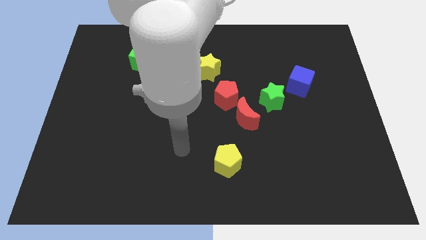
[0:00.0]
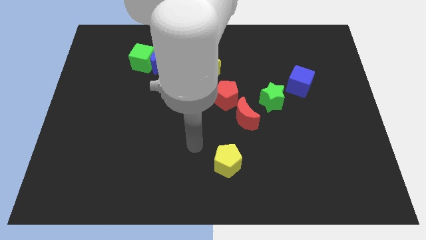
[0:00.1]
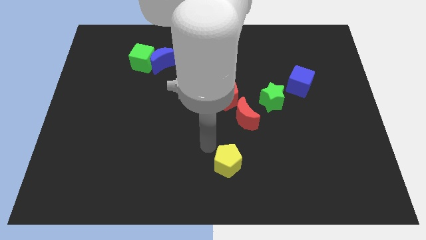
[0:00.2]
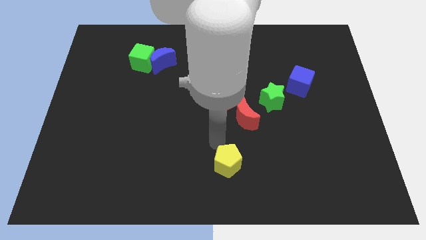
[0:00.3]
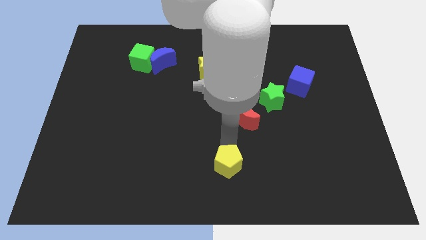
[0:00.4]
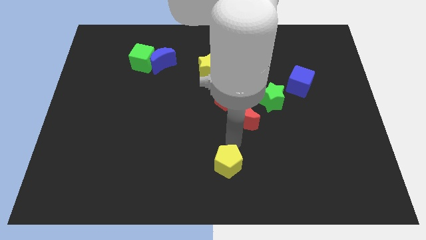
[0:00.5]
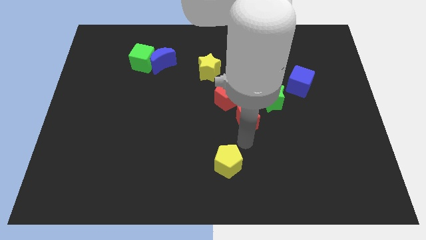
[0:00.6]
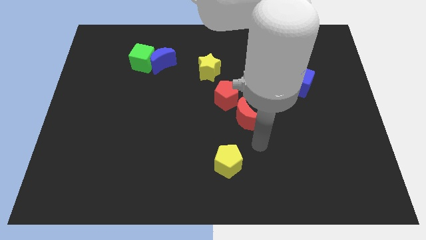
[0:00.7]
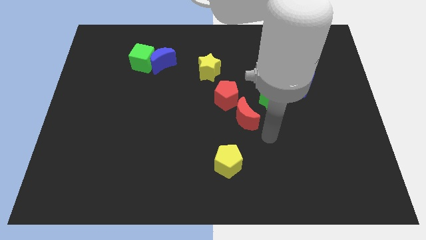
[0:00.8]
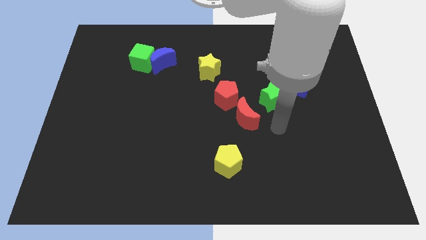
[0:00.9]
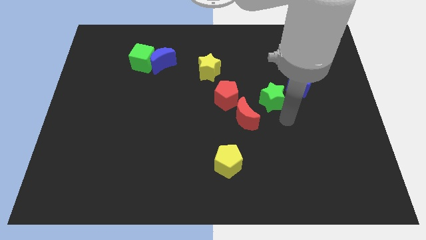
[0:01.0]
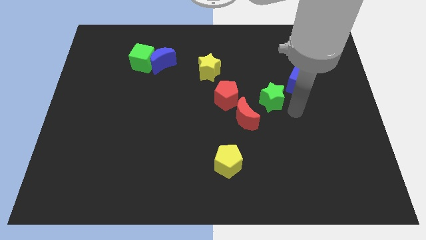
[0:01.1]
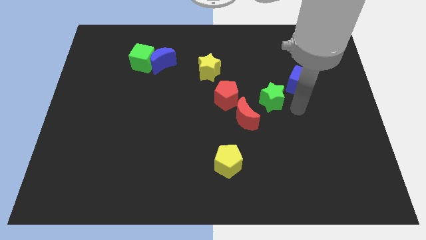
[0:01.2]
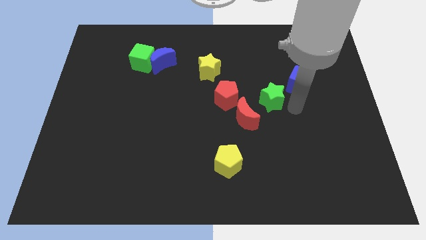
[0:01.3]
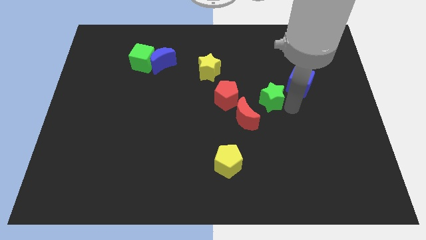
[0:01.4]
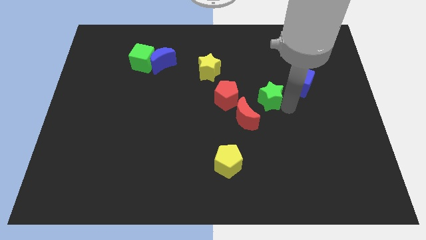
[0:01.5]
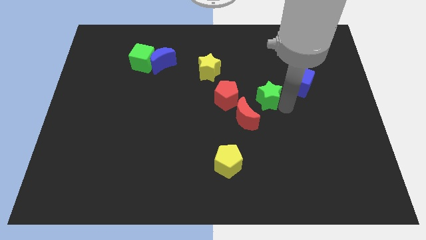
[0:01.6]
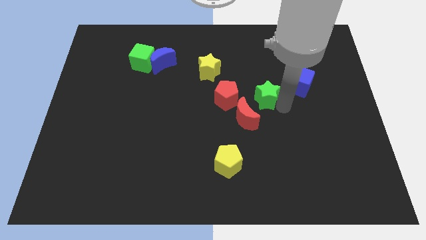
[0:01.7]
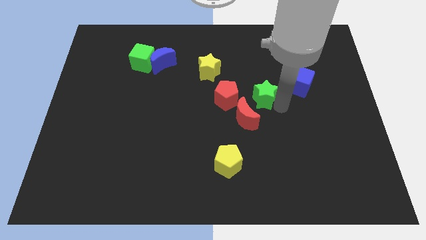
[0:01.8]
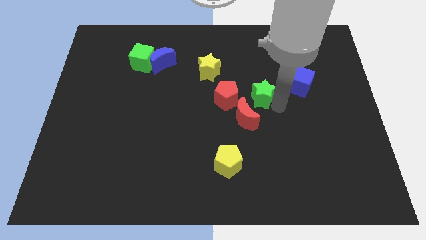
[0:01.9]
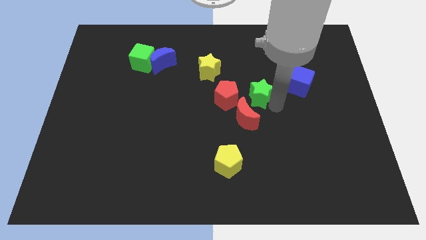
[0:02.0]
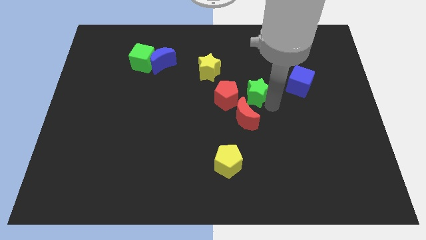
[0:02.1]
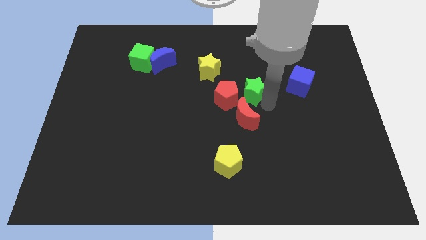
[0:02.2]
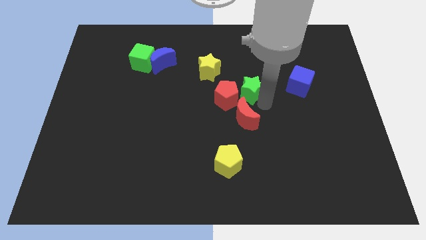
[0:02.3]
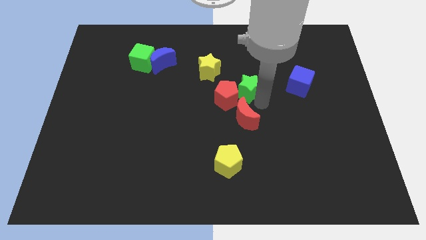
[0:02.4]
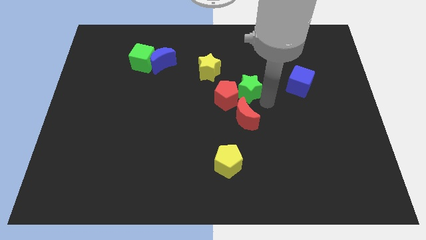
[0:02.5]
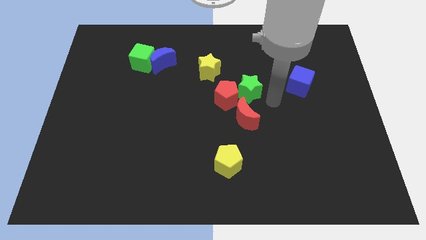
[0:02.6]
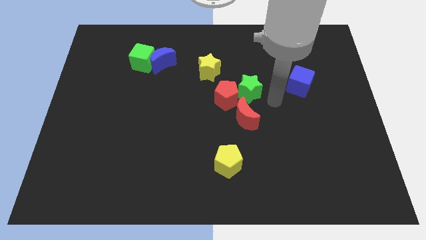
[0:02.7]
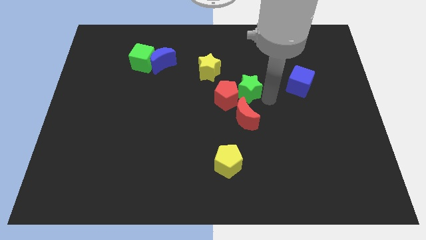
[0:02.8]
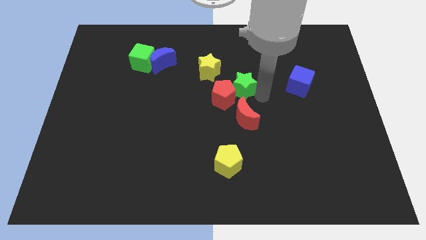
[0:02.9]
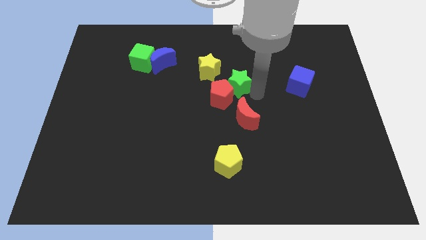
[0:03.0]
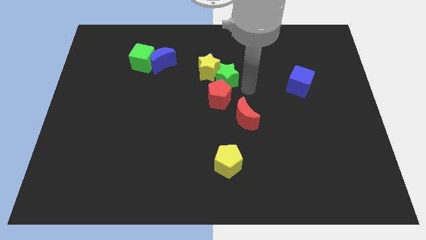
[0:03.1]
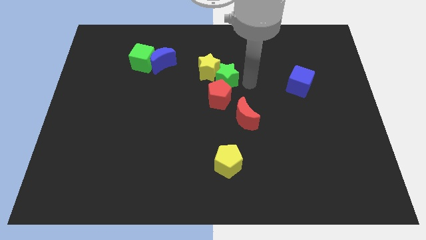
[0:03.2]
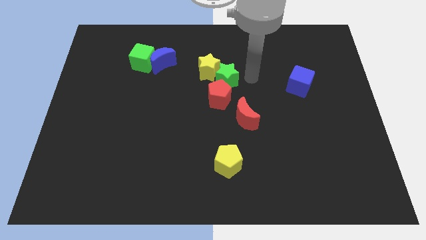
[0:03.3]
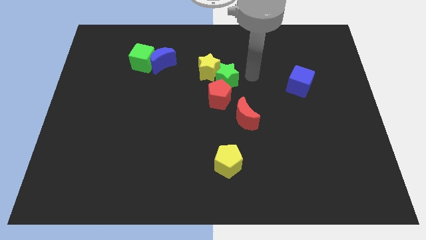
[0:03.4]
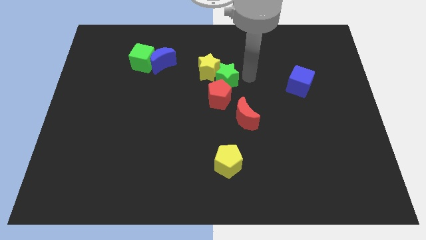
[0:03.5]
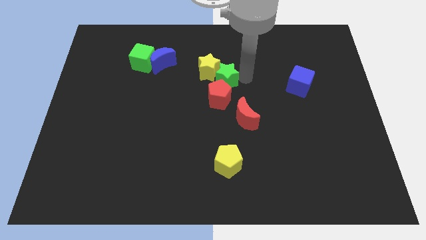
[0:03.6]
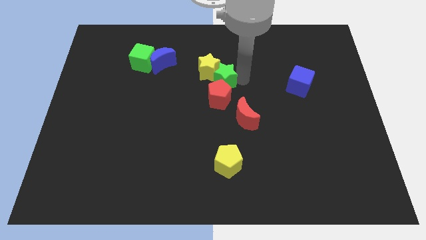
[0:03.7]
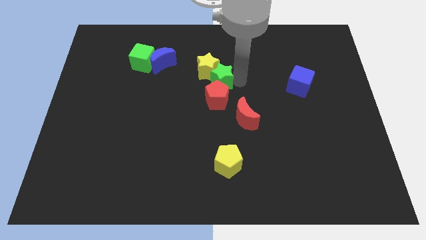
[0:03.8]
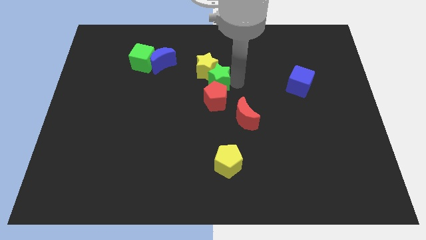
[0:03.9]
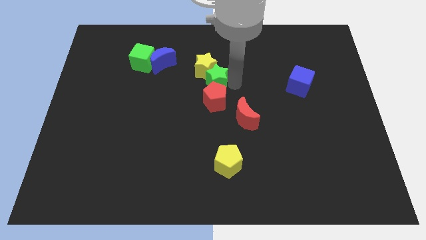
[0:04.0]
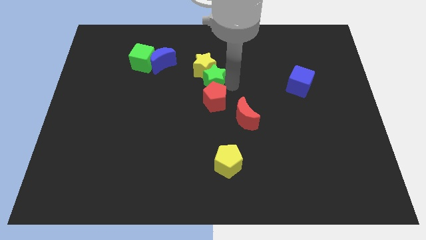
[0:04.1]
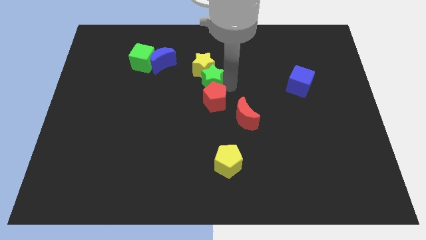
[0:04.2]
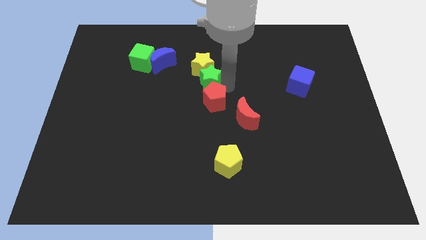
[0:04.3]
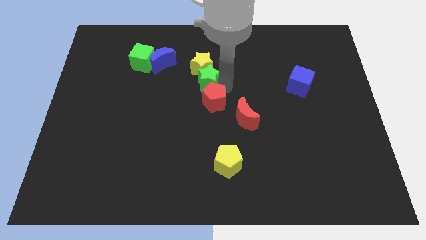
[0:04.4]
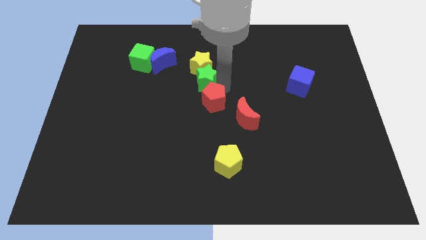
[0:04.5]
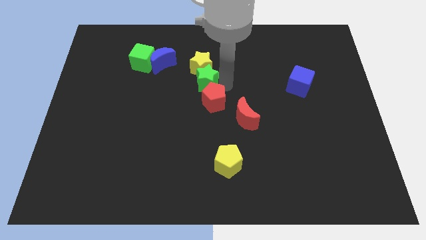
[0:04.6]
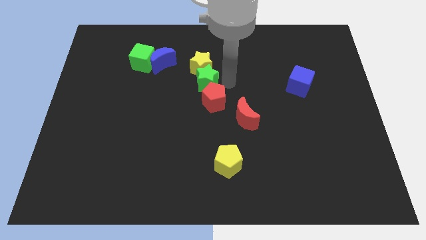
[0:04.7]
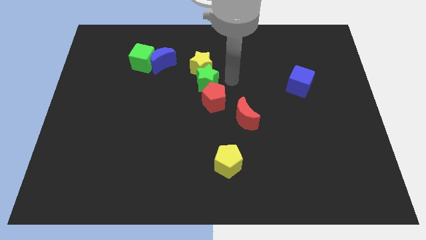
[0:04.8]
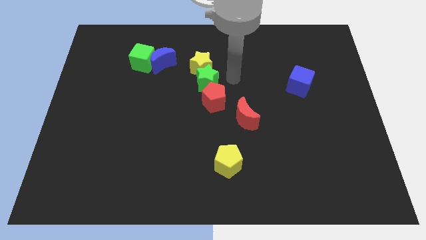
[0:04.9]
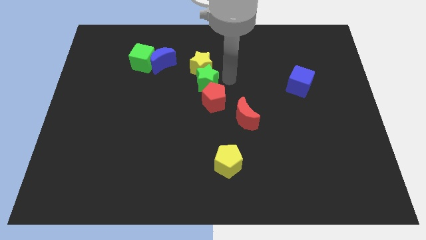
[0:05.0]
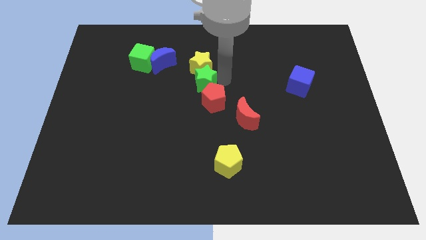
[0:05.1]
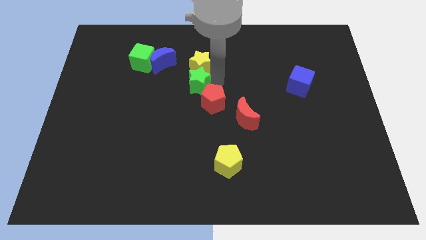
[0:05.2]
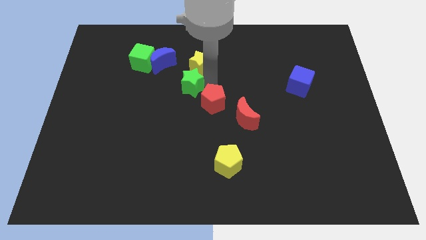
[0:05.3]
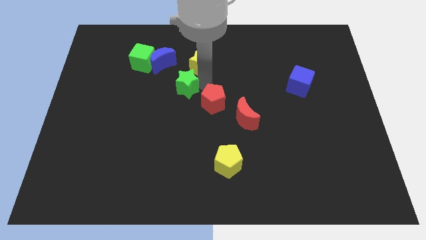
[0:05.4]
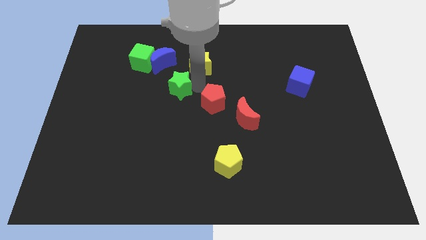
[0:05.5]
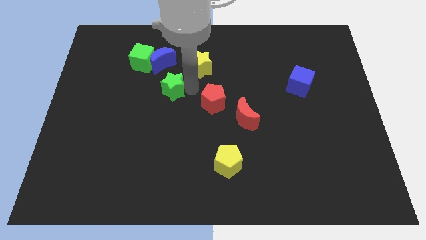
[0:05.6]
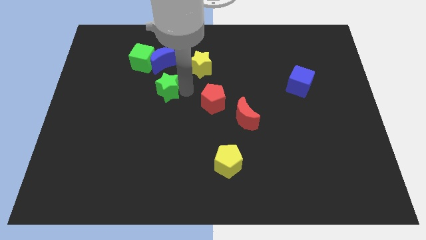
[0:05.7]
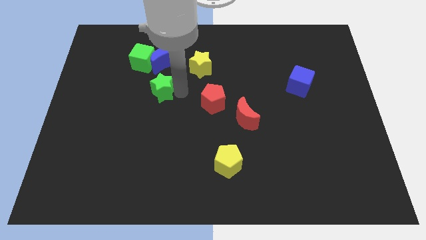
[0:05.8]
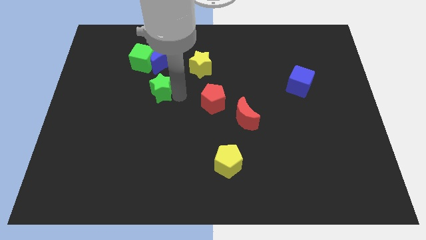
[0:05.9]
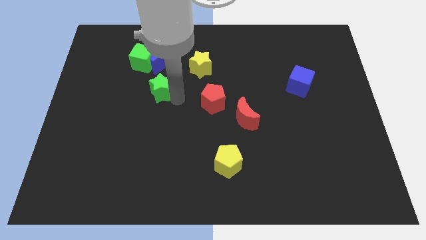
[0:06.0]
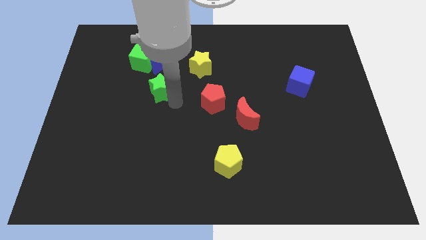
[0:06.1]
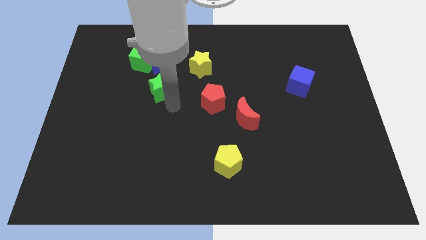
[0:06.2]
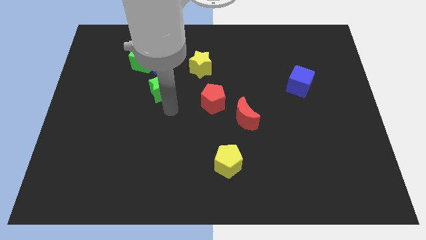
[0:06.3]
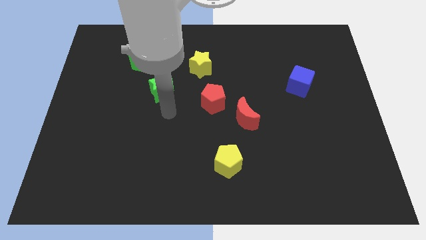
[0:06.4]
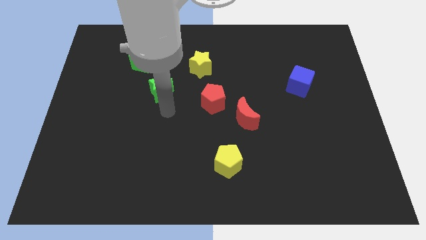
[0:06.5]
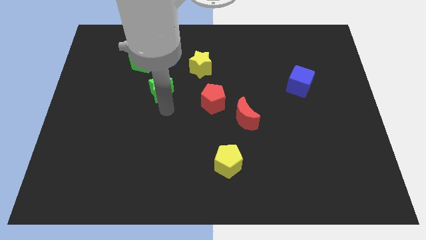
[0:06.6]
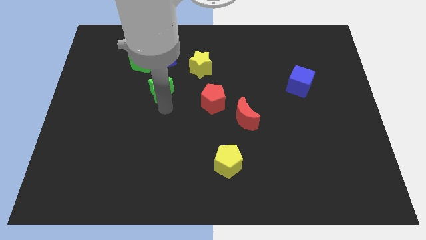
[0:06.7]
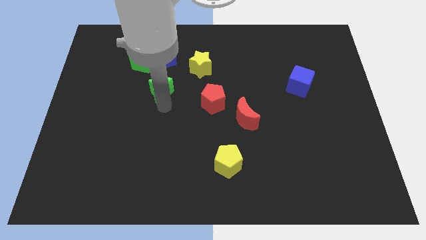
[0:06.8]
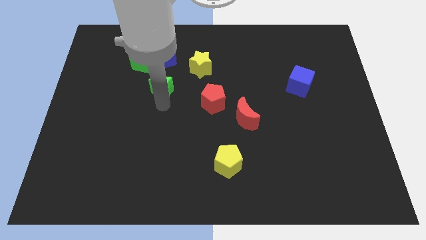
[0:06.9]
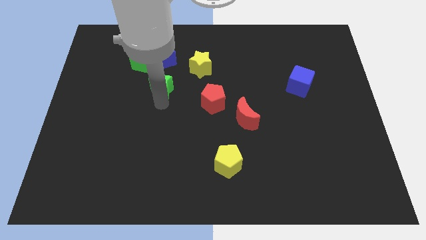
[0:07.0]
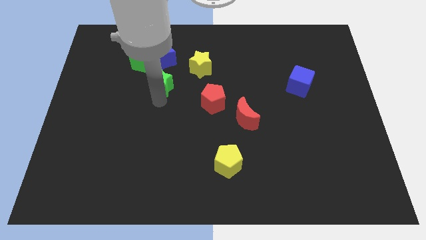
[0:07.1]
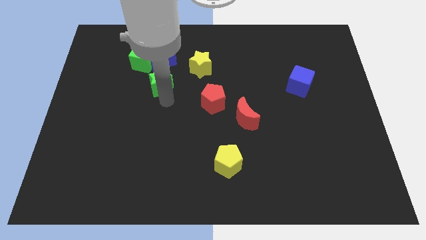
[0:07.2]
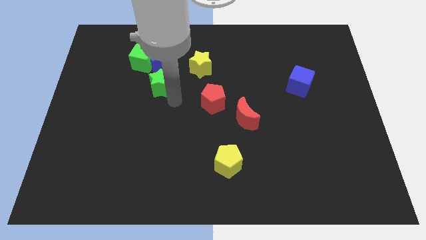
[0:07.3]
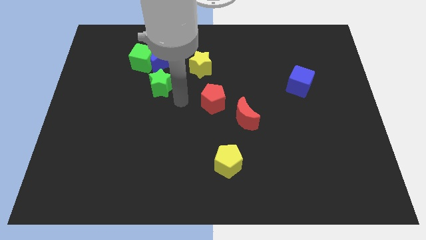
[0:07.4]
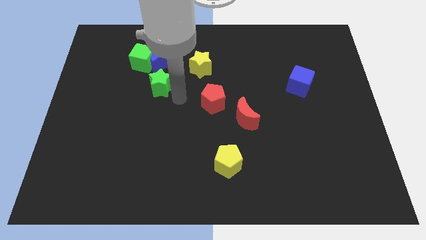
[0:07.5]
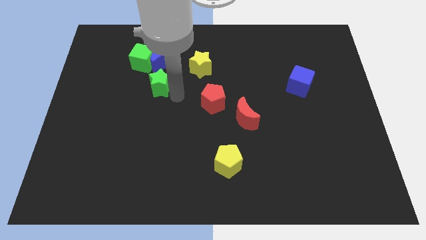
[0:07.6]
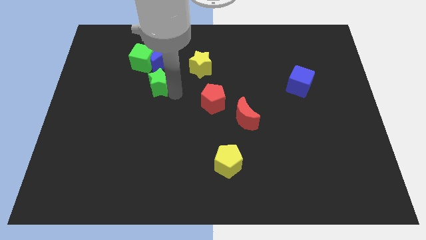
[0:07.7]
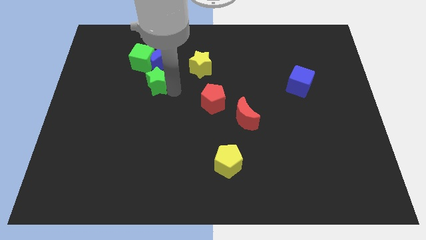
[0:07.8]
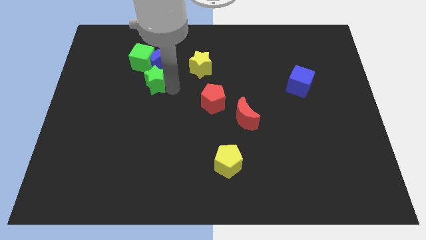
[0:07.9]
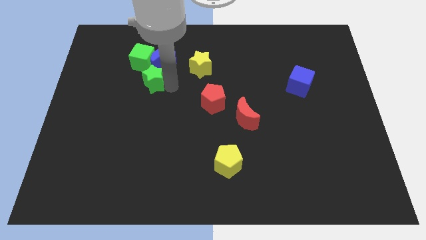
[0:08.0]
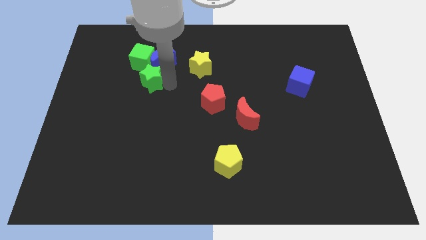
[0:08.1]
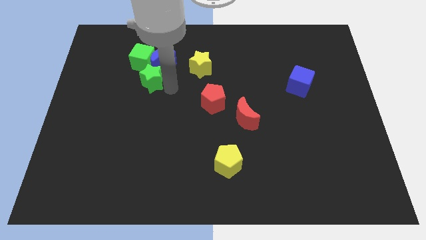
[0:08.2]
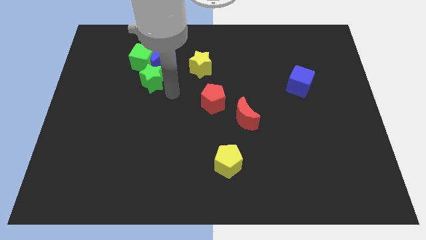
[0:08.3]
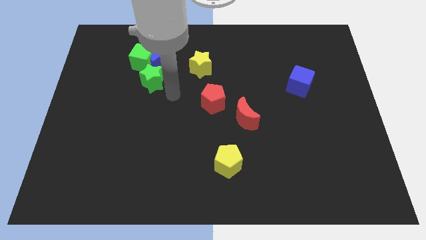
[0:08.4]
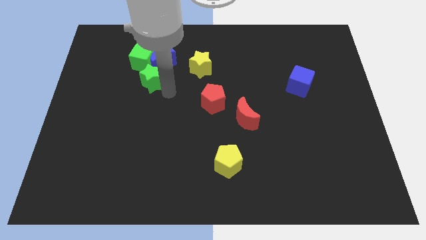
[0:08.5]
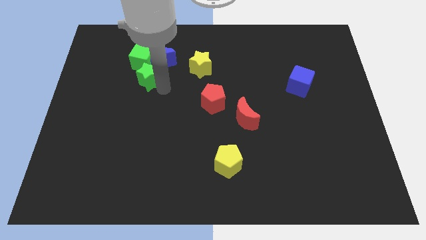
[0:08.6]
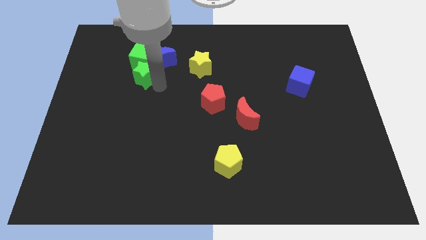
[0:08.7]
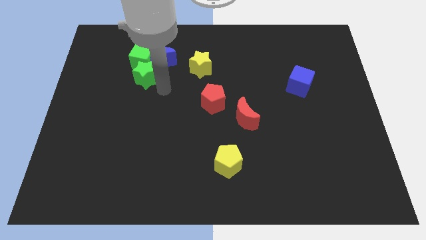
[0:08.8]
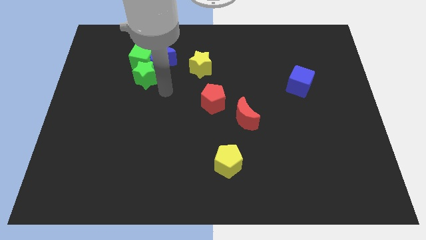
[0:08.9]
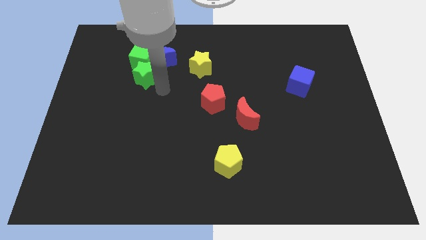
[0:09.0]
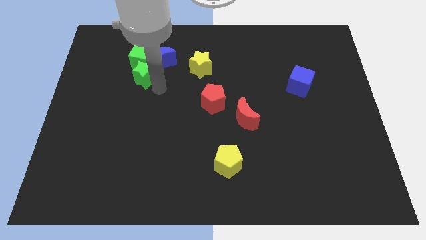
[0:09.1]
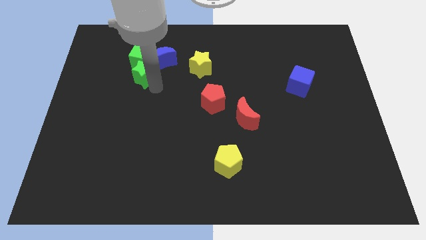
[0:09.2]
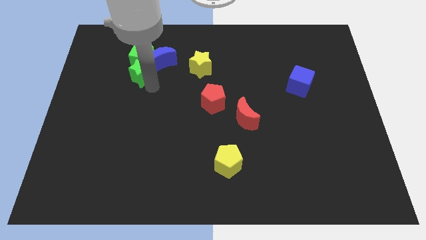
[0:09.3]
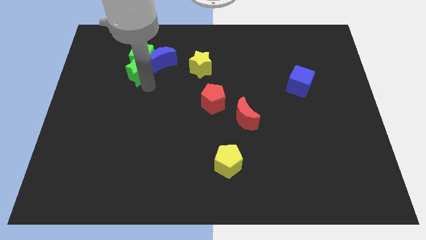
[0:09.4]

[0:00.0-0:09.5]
push the green star just left of the blue moon
